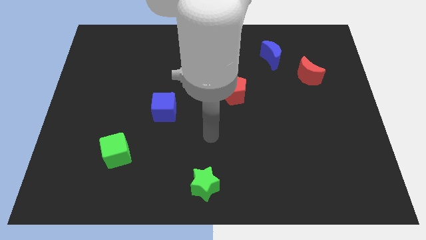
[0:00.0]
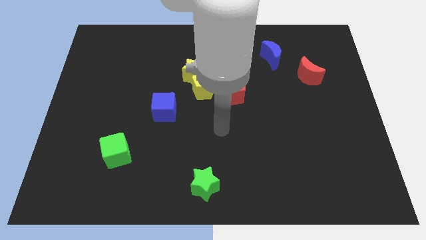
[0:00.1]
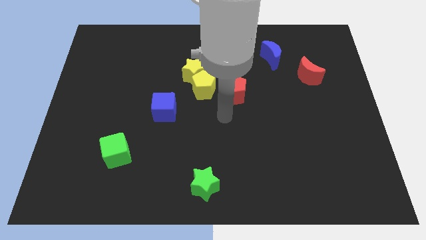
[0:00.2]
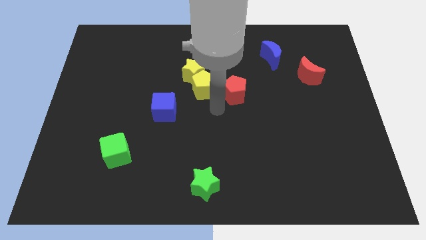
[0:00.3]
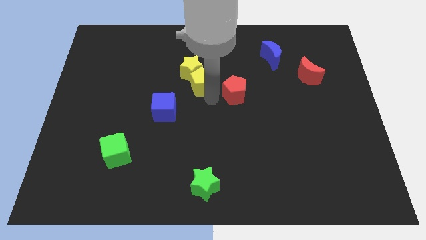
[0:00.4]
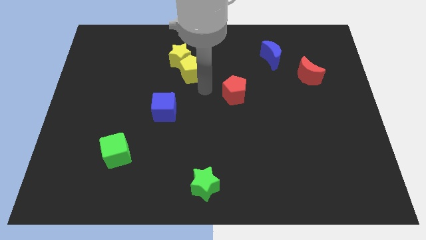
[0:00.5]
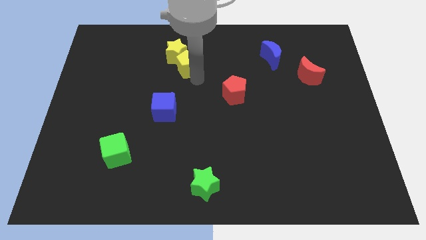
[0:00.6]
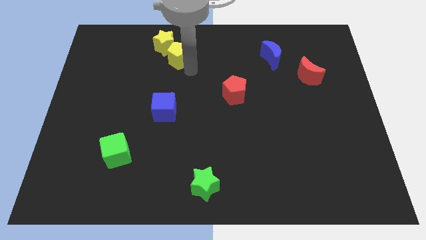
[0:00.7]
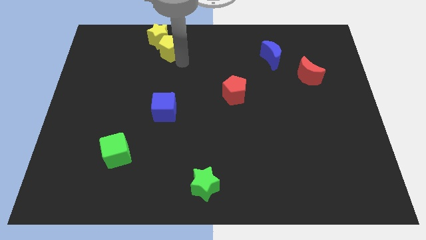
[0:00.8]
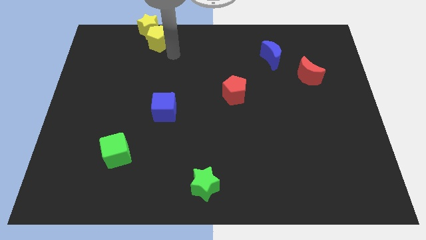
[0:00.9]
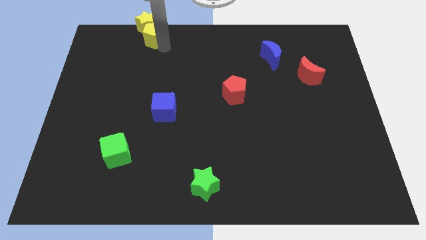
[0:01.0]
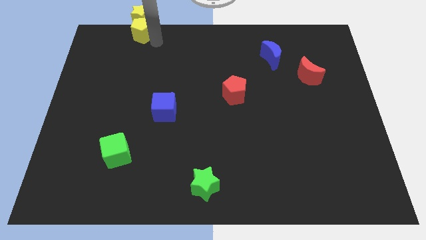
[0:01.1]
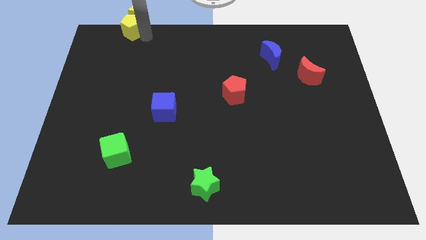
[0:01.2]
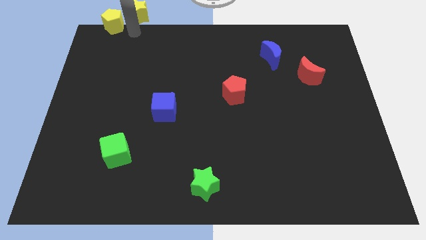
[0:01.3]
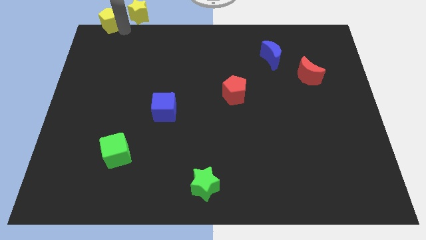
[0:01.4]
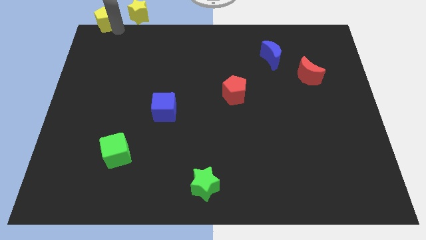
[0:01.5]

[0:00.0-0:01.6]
separate the yellow star from the yellow pentagon

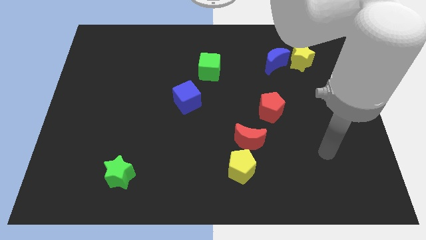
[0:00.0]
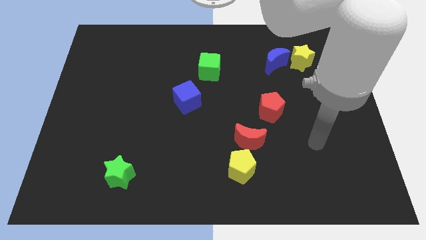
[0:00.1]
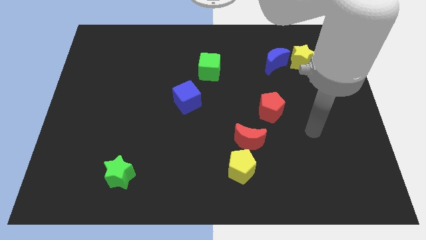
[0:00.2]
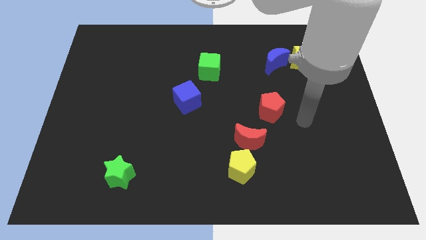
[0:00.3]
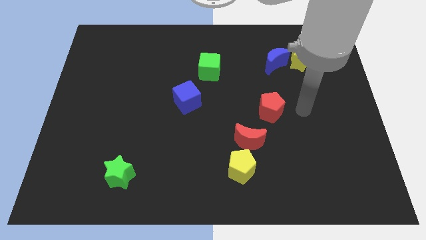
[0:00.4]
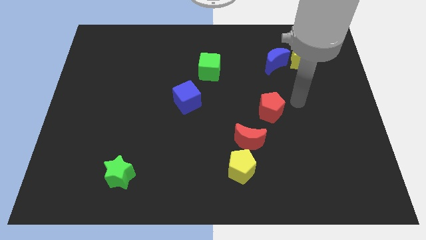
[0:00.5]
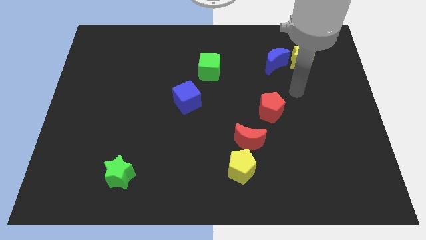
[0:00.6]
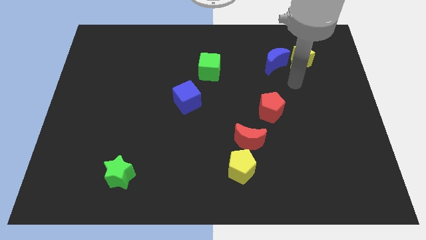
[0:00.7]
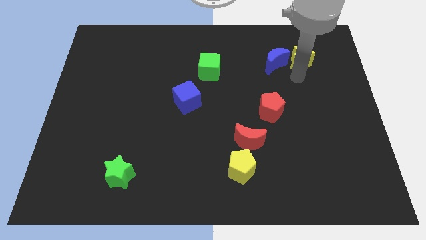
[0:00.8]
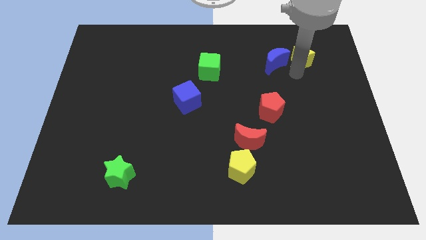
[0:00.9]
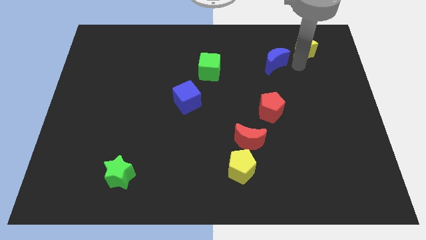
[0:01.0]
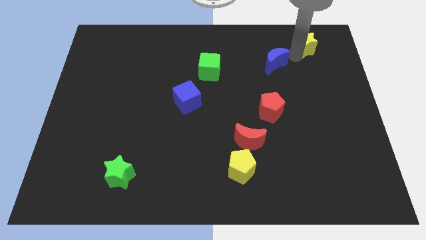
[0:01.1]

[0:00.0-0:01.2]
pull the blue moon apart from the yellow star

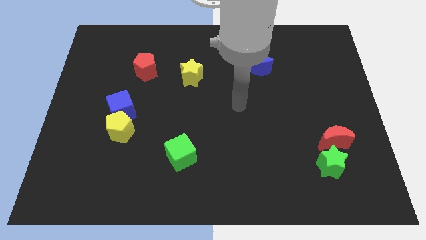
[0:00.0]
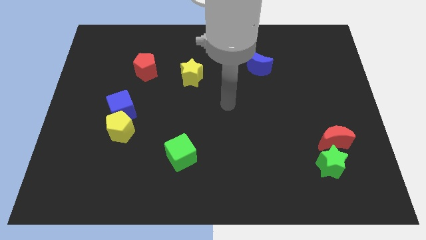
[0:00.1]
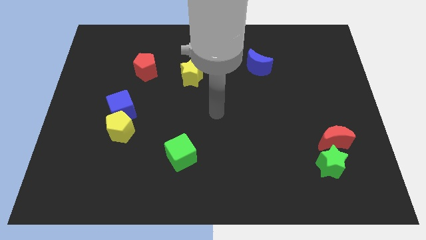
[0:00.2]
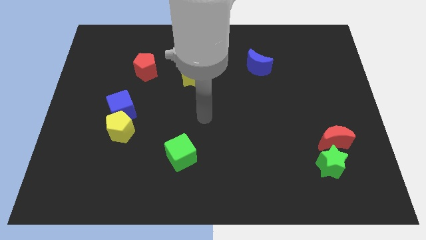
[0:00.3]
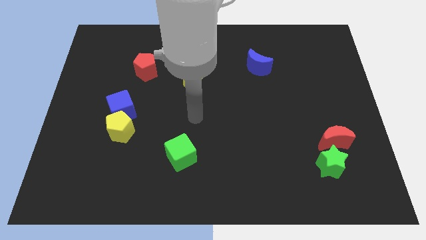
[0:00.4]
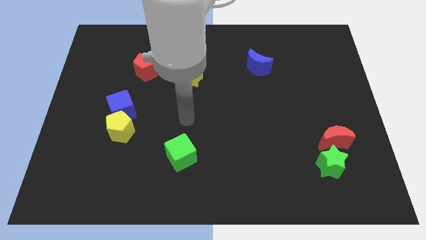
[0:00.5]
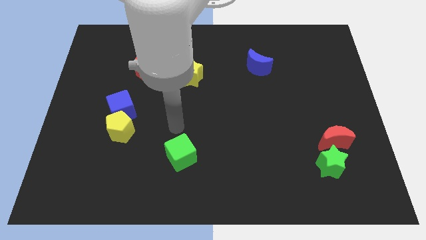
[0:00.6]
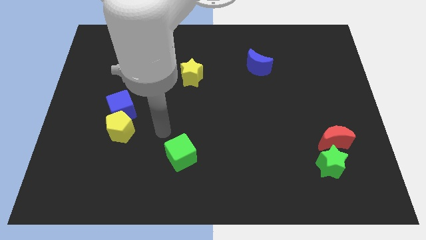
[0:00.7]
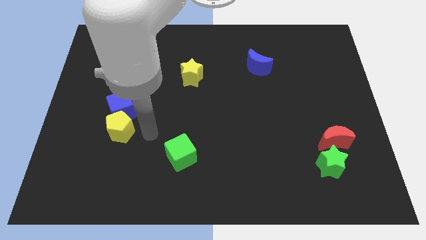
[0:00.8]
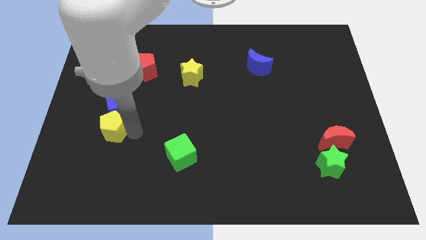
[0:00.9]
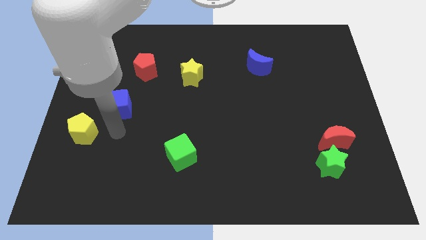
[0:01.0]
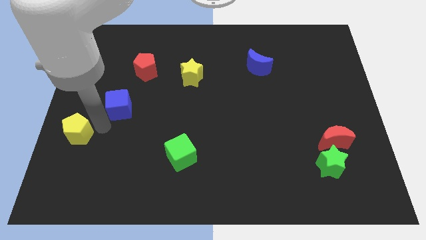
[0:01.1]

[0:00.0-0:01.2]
separate the blue cube from the yellow pentagon

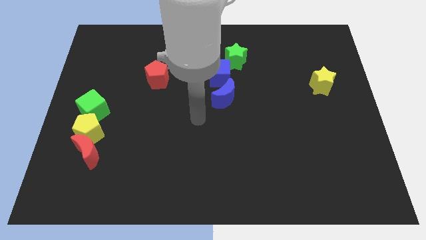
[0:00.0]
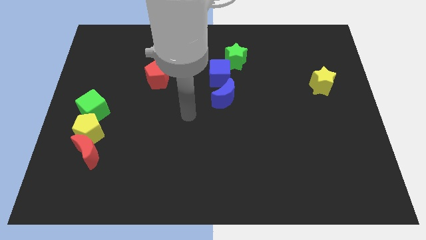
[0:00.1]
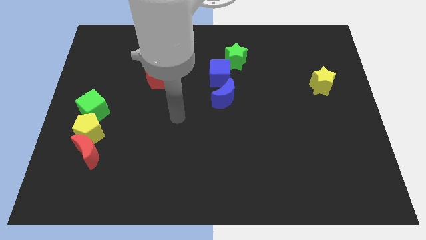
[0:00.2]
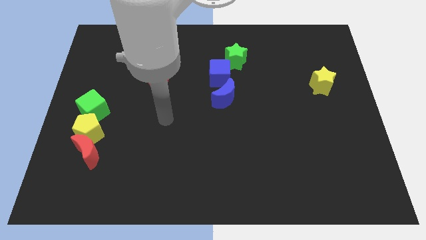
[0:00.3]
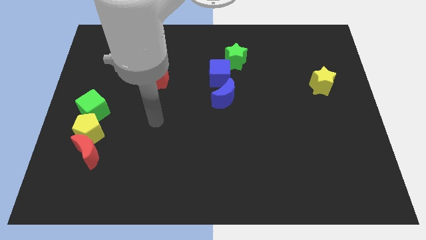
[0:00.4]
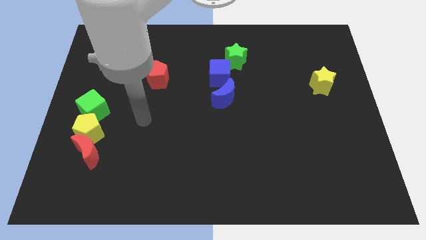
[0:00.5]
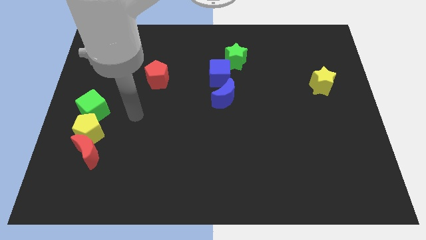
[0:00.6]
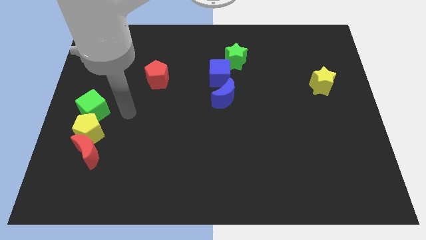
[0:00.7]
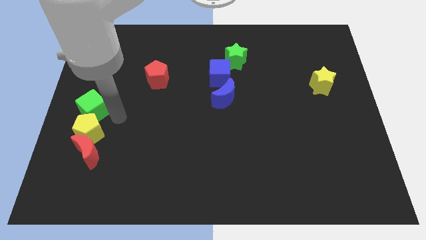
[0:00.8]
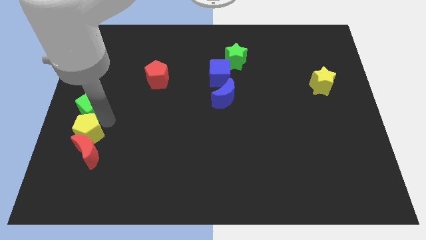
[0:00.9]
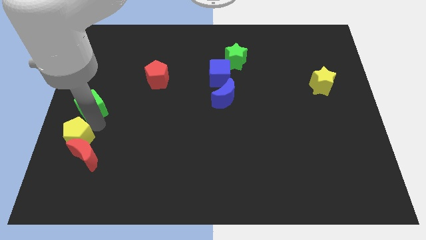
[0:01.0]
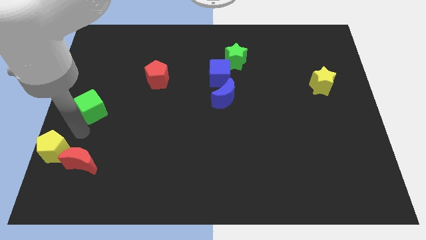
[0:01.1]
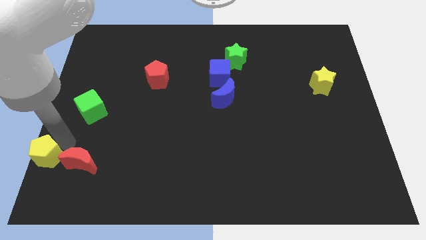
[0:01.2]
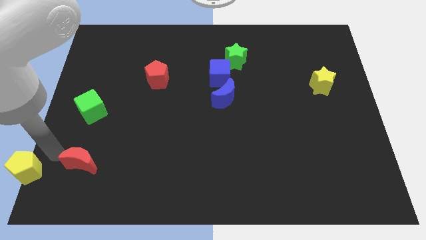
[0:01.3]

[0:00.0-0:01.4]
separate the red moon from the yellow pentagon

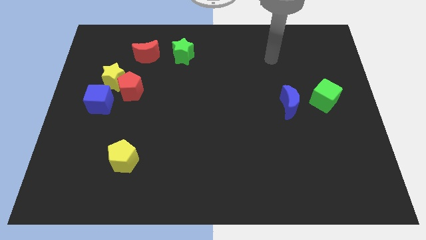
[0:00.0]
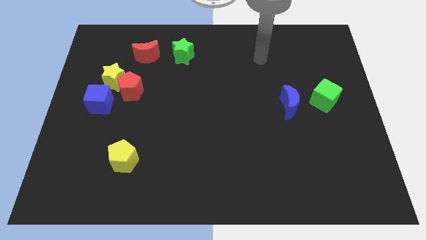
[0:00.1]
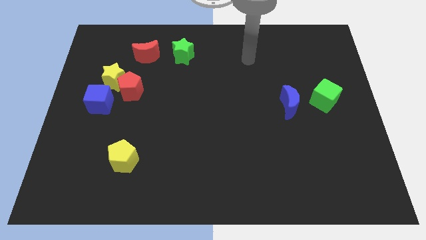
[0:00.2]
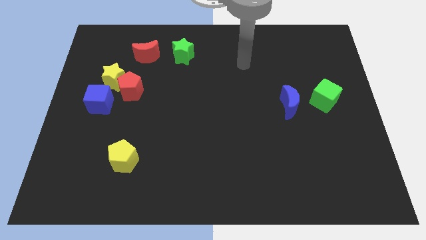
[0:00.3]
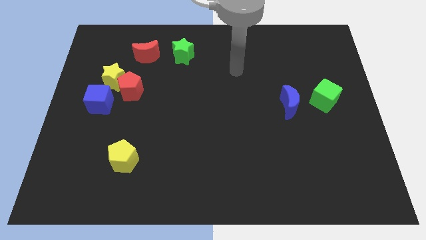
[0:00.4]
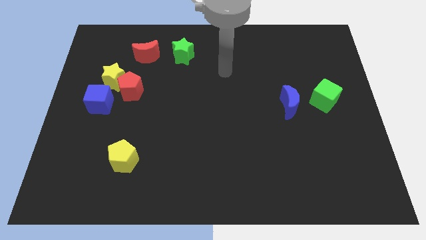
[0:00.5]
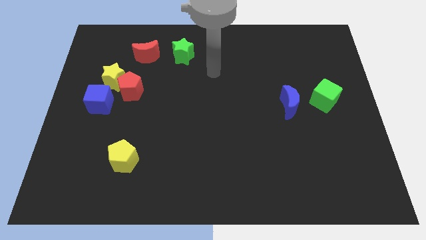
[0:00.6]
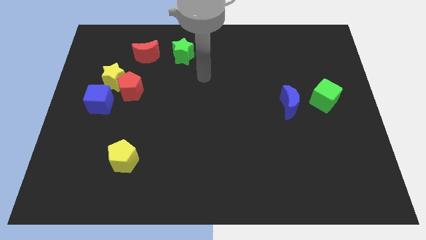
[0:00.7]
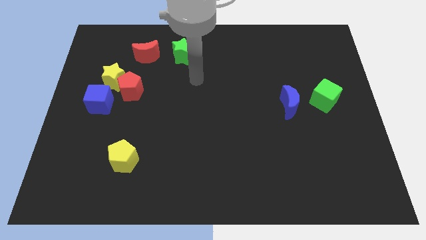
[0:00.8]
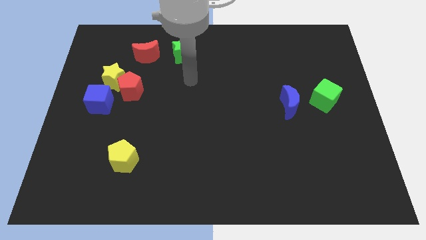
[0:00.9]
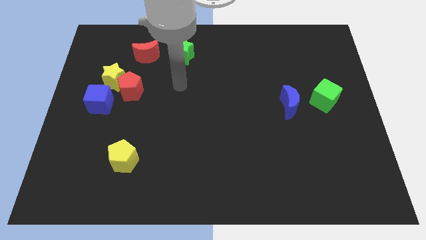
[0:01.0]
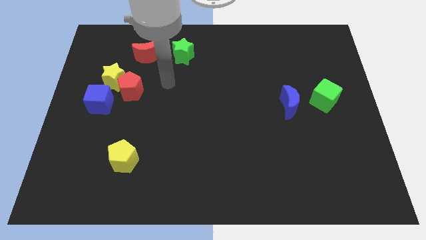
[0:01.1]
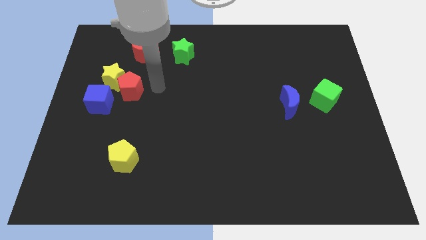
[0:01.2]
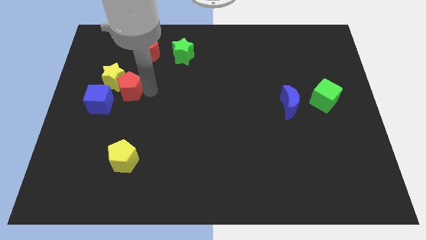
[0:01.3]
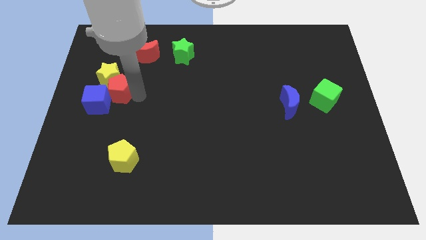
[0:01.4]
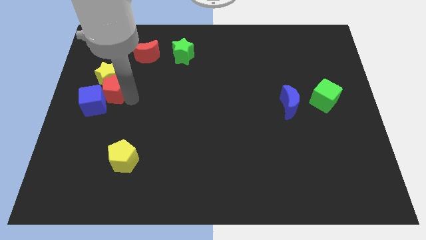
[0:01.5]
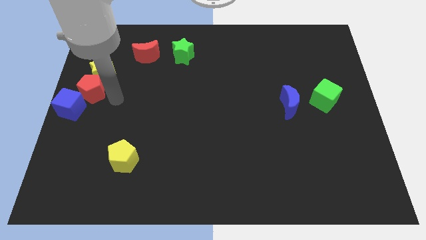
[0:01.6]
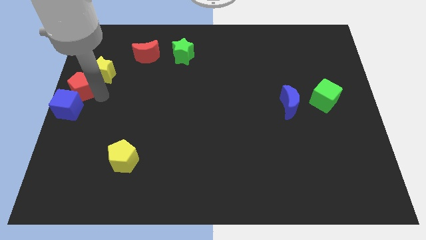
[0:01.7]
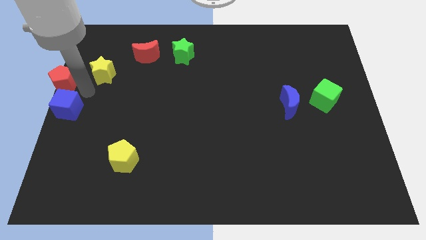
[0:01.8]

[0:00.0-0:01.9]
move the yellow star away from the red pentagon and blue cube

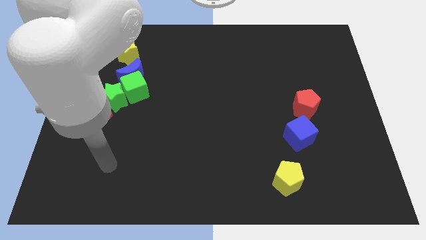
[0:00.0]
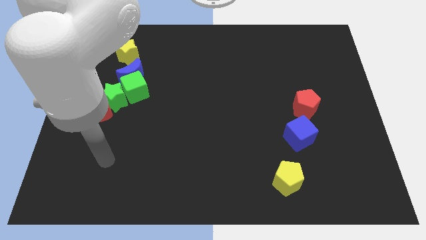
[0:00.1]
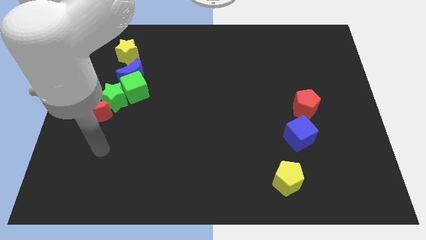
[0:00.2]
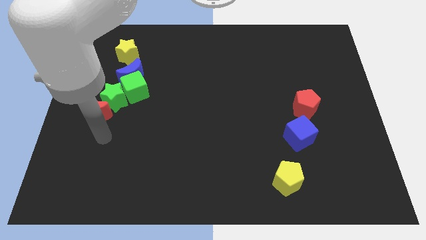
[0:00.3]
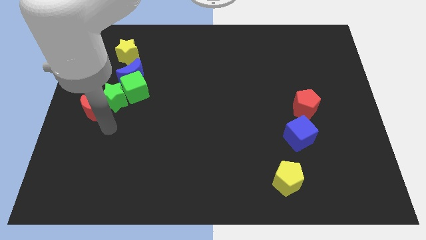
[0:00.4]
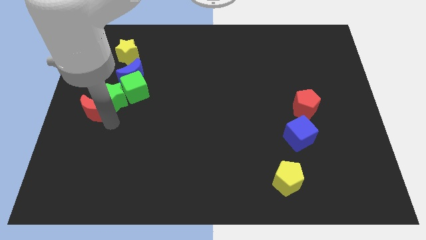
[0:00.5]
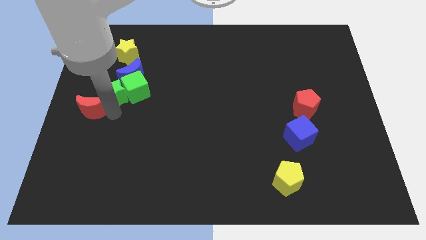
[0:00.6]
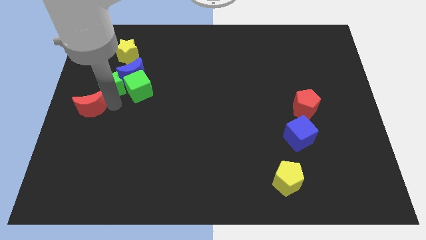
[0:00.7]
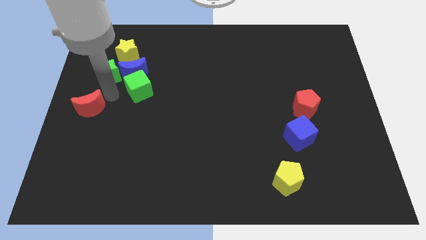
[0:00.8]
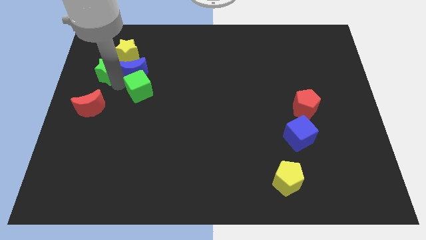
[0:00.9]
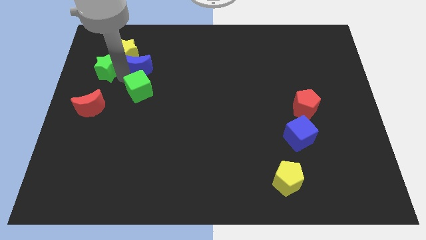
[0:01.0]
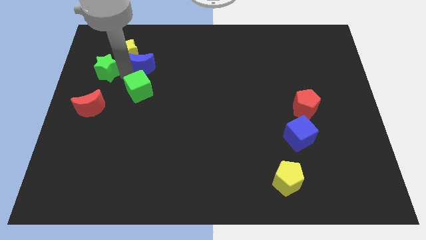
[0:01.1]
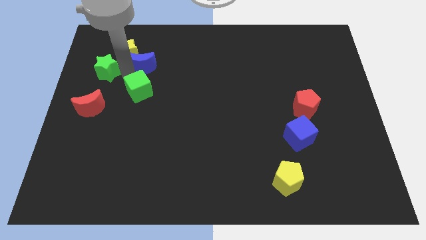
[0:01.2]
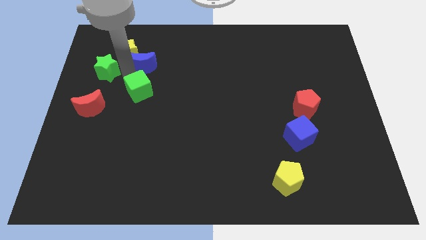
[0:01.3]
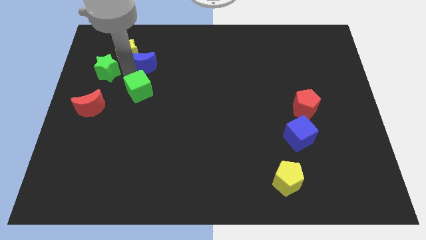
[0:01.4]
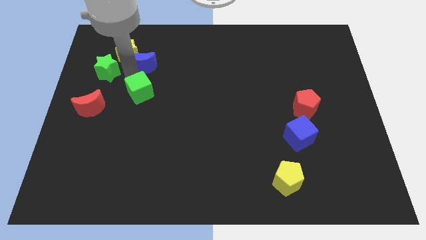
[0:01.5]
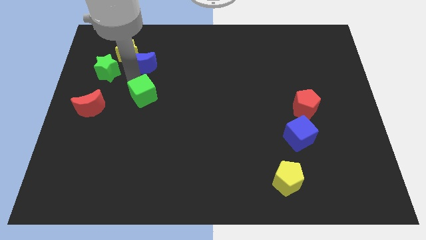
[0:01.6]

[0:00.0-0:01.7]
separate the green cube from the blue moon and green star

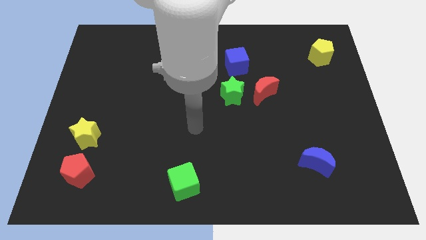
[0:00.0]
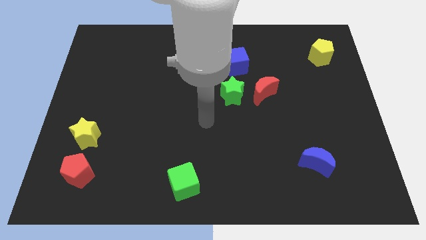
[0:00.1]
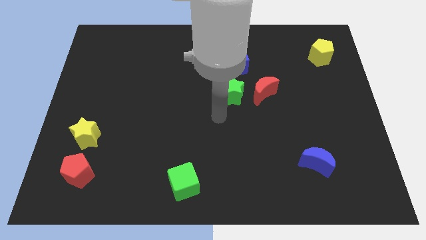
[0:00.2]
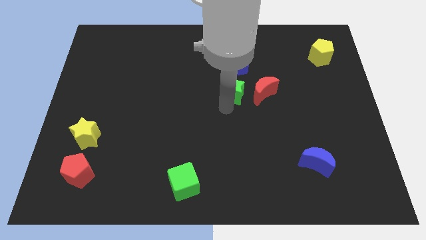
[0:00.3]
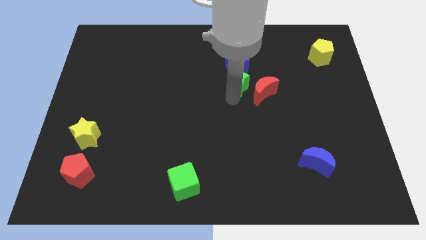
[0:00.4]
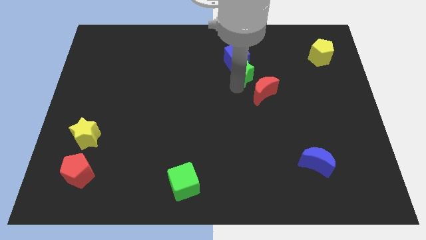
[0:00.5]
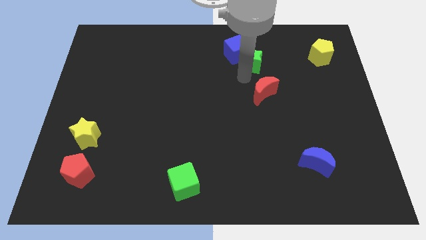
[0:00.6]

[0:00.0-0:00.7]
move the red moon away from the green star
